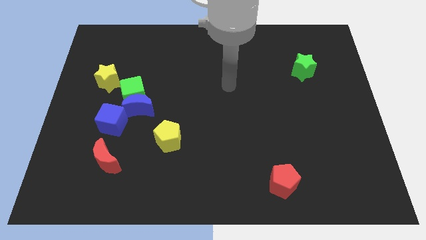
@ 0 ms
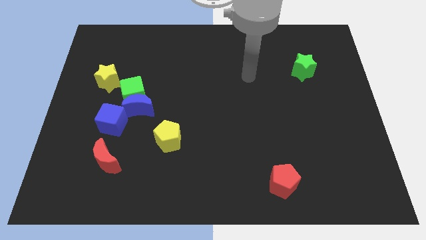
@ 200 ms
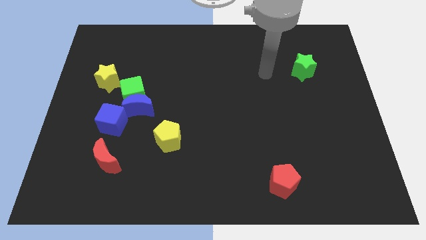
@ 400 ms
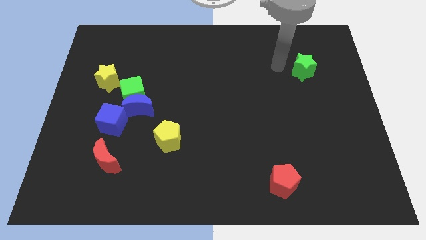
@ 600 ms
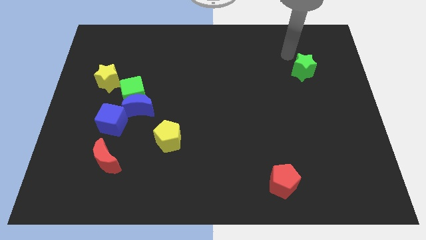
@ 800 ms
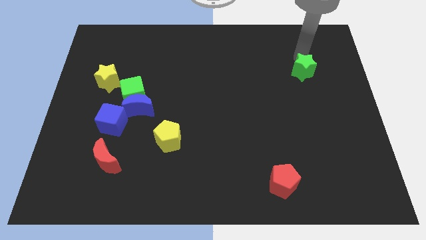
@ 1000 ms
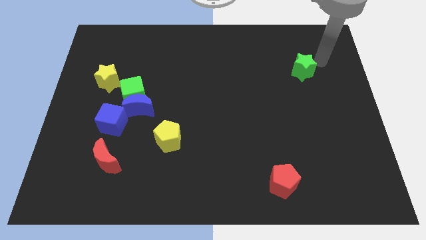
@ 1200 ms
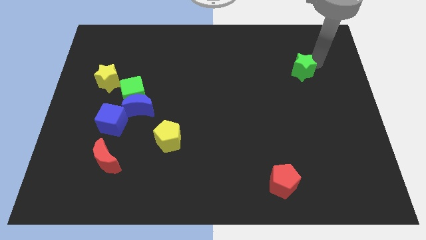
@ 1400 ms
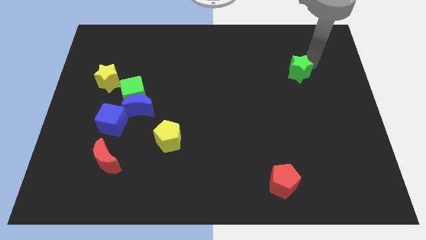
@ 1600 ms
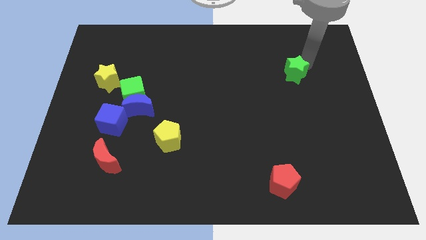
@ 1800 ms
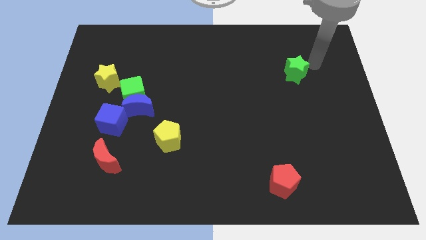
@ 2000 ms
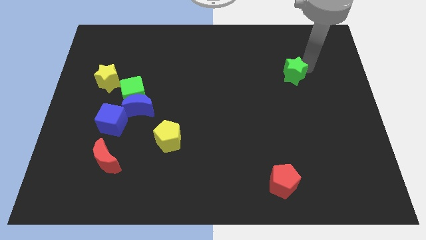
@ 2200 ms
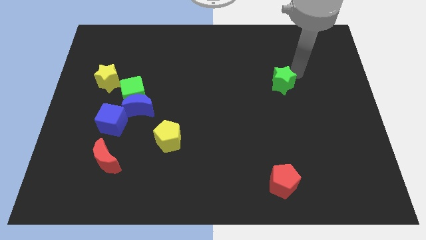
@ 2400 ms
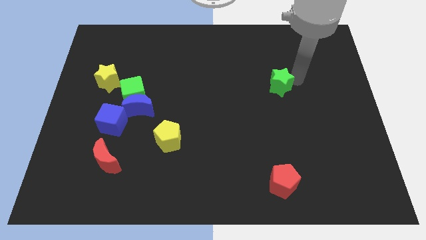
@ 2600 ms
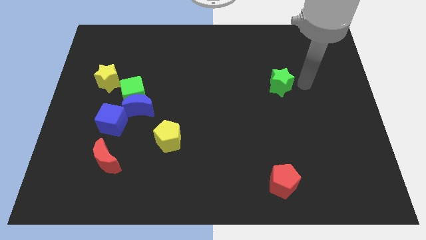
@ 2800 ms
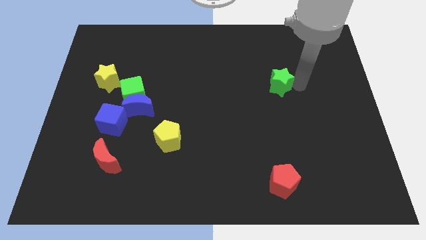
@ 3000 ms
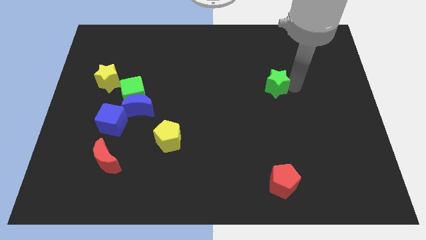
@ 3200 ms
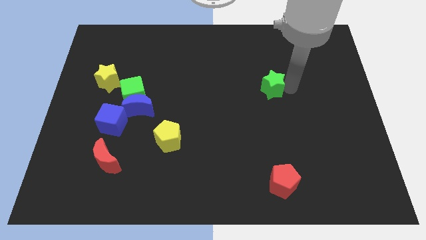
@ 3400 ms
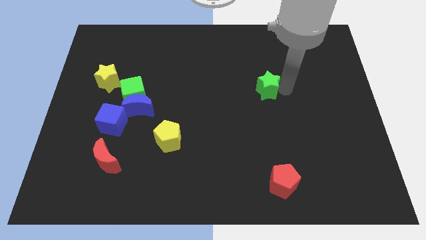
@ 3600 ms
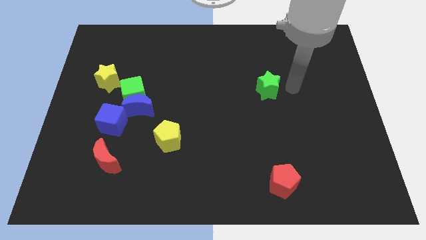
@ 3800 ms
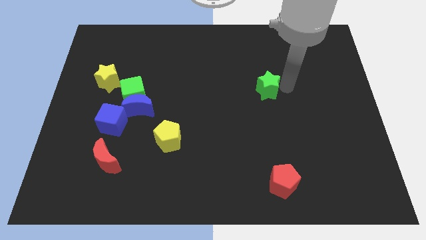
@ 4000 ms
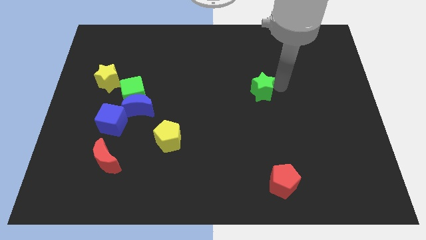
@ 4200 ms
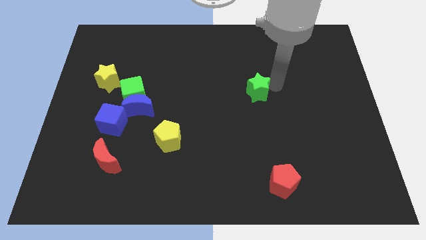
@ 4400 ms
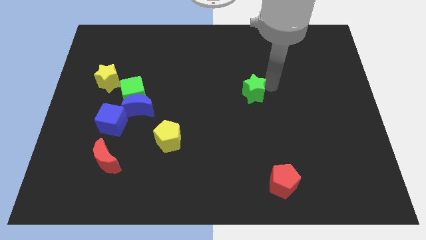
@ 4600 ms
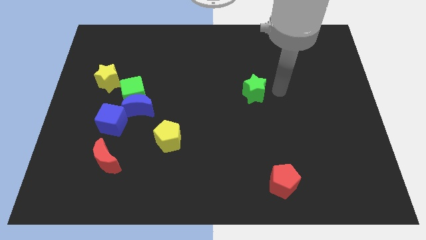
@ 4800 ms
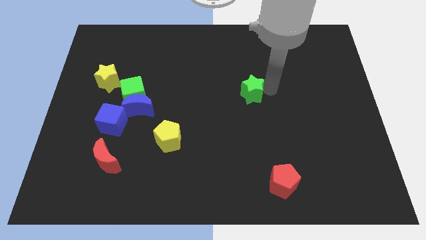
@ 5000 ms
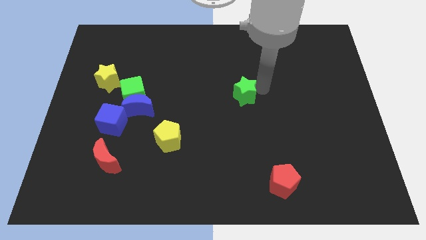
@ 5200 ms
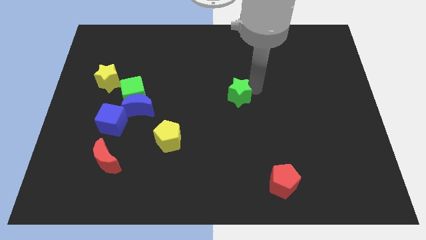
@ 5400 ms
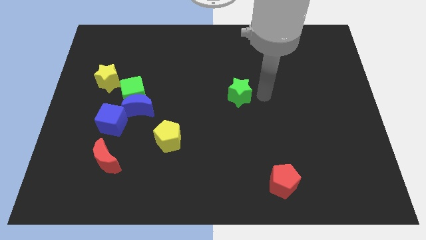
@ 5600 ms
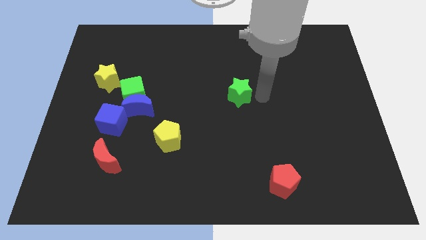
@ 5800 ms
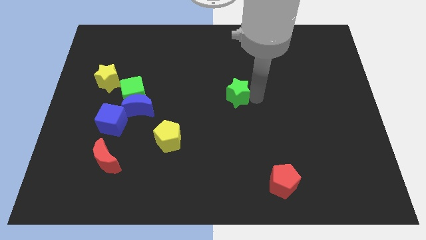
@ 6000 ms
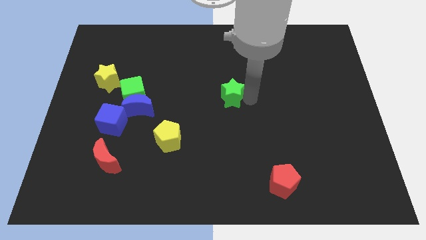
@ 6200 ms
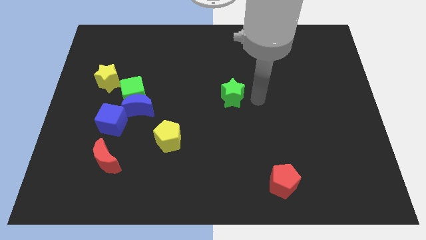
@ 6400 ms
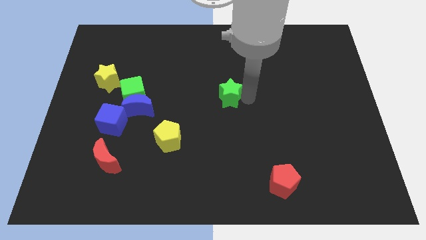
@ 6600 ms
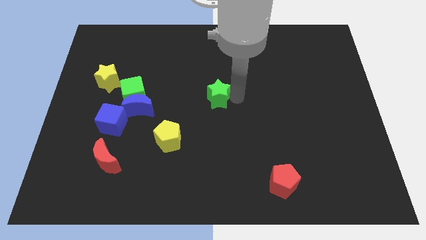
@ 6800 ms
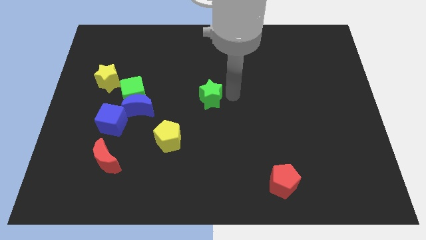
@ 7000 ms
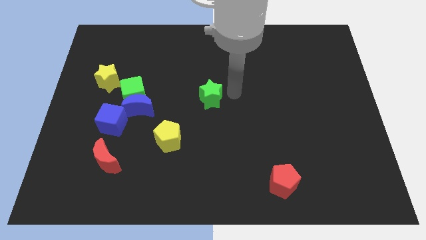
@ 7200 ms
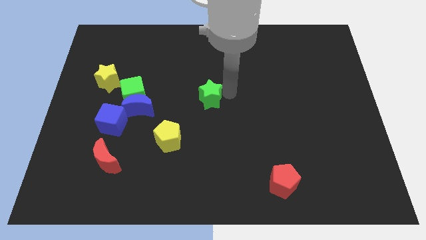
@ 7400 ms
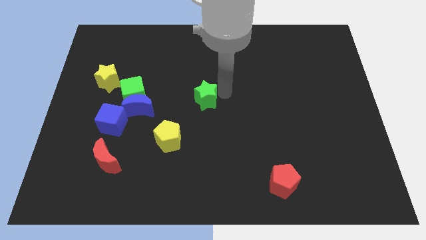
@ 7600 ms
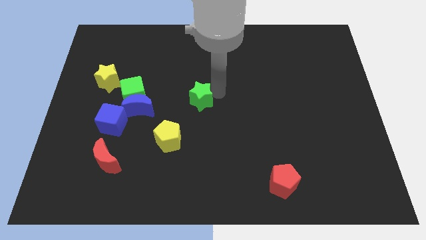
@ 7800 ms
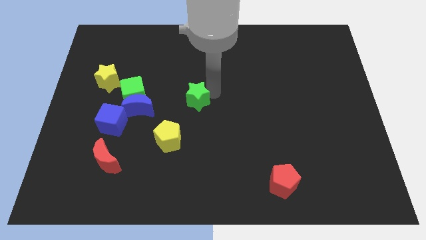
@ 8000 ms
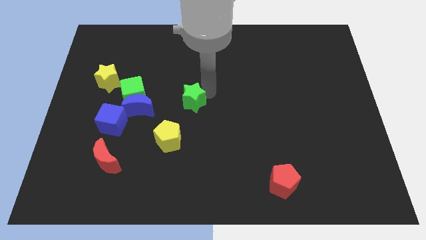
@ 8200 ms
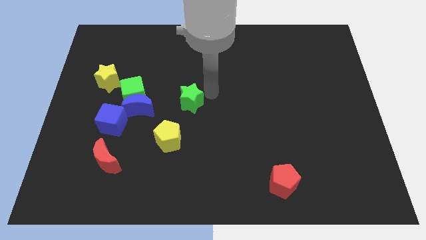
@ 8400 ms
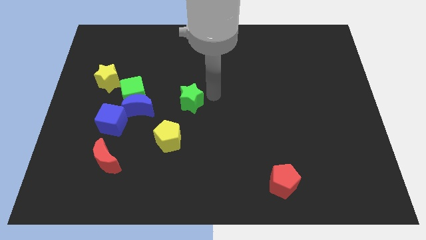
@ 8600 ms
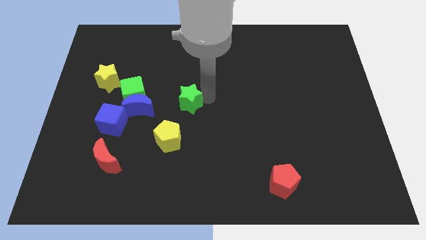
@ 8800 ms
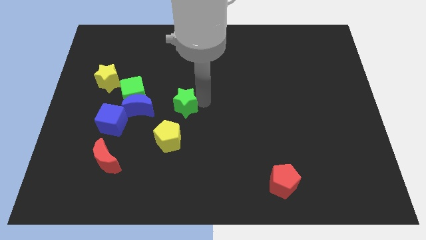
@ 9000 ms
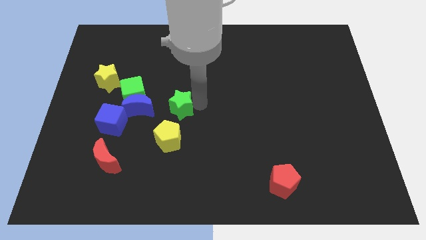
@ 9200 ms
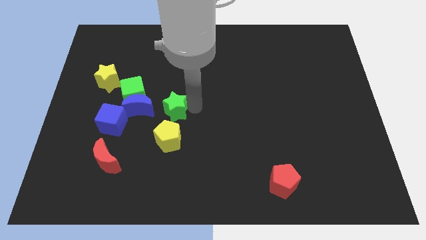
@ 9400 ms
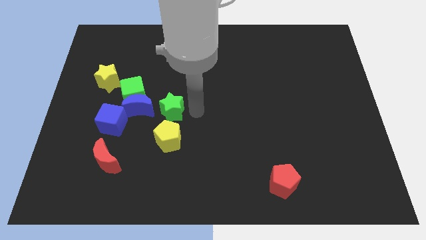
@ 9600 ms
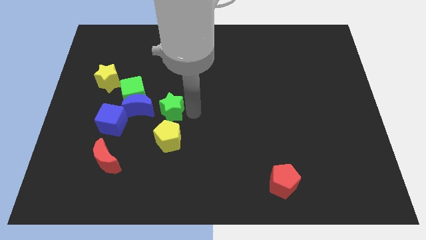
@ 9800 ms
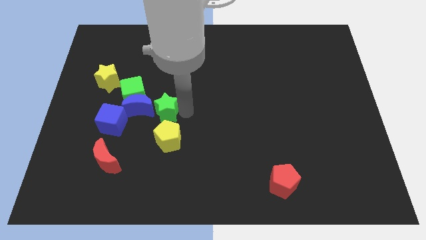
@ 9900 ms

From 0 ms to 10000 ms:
move the green star close to the blue moon

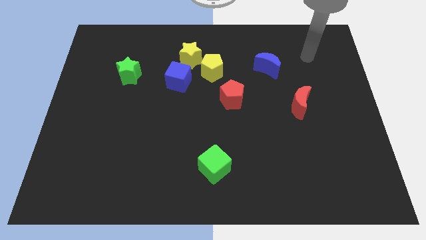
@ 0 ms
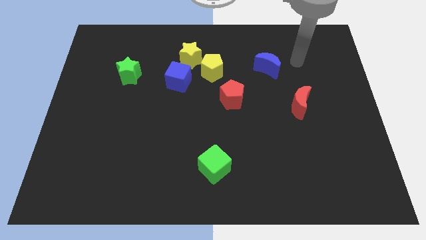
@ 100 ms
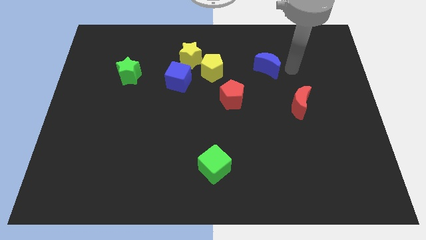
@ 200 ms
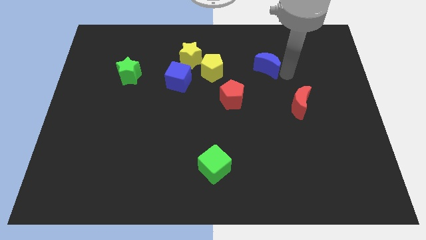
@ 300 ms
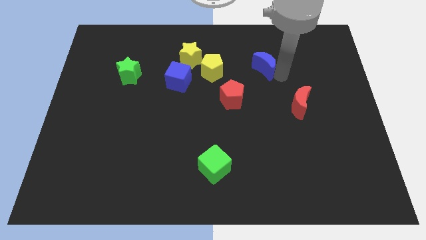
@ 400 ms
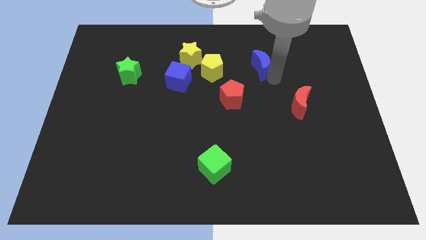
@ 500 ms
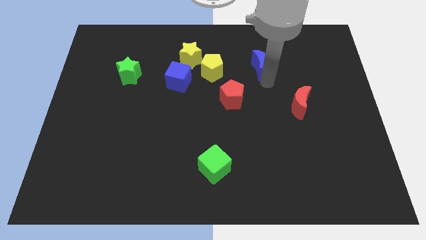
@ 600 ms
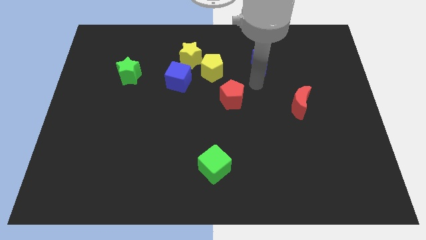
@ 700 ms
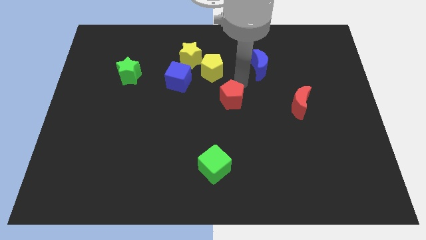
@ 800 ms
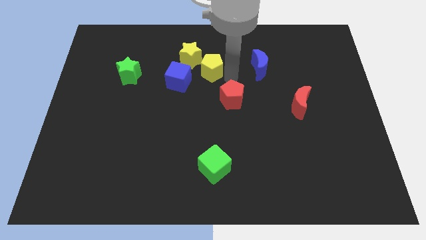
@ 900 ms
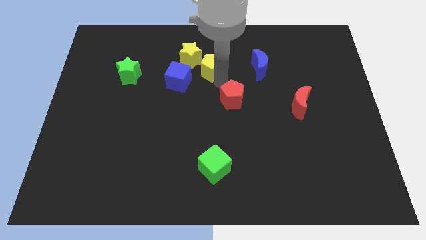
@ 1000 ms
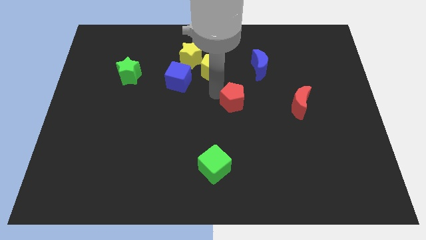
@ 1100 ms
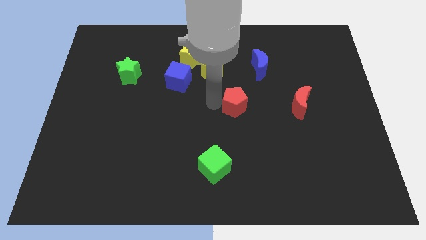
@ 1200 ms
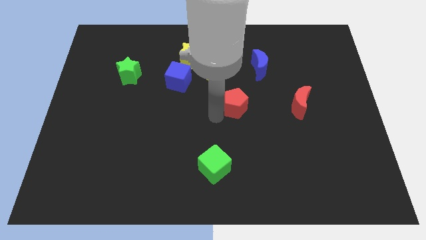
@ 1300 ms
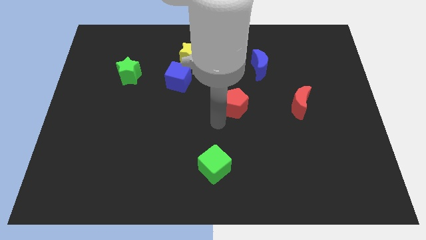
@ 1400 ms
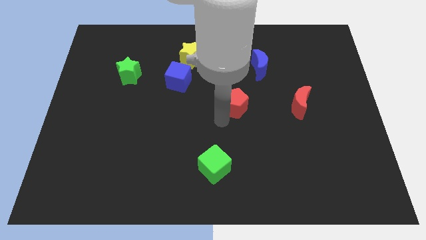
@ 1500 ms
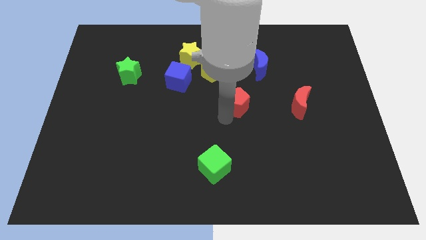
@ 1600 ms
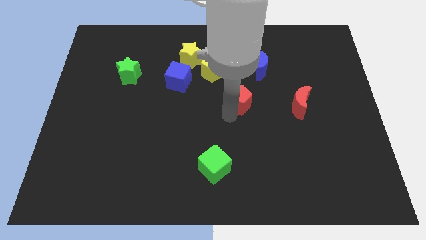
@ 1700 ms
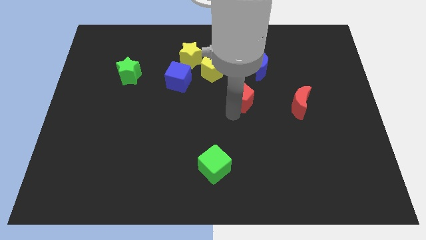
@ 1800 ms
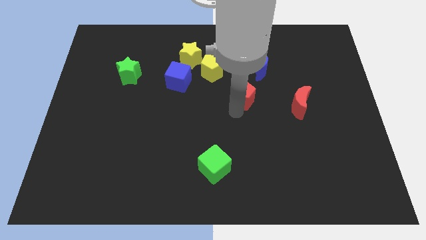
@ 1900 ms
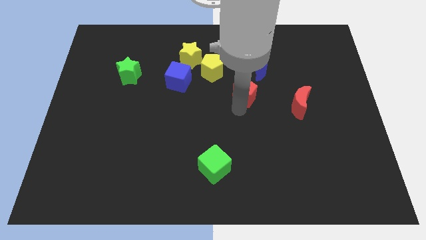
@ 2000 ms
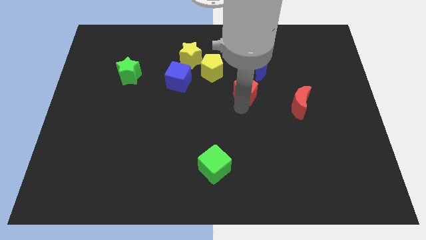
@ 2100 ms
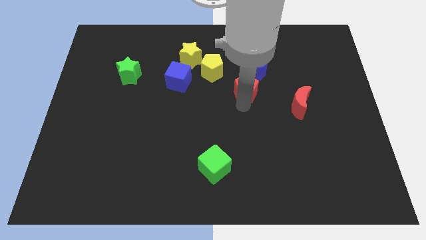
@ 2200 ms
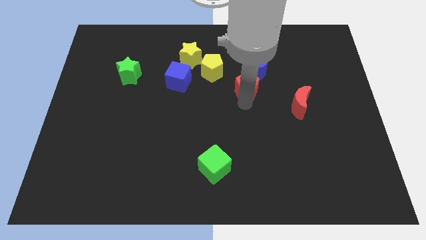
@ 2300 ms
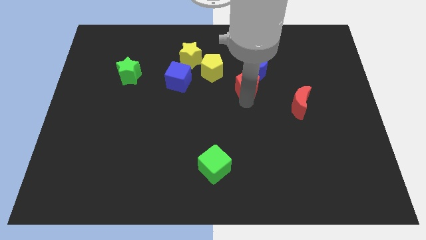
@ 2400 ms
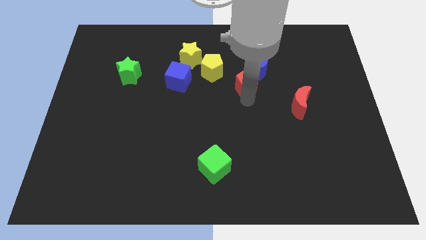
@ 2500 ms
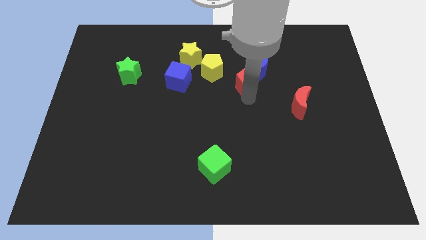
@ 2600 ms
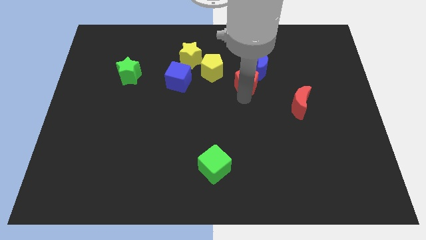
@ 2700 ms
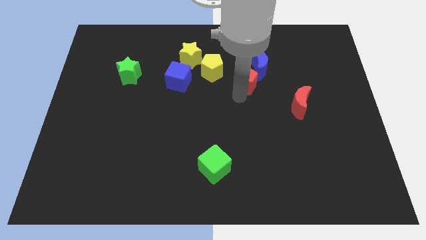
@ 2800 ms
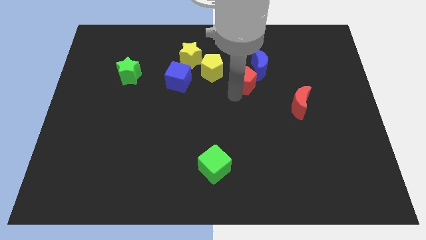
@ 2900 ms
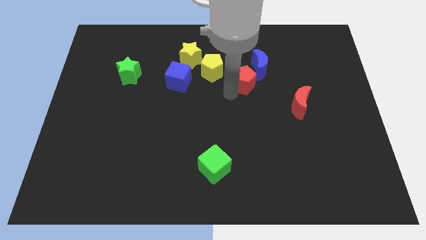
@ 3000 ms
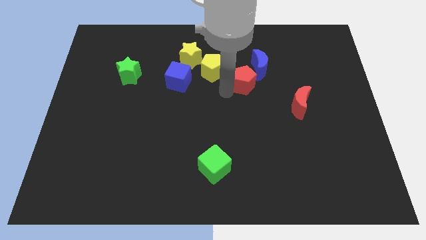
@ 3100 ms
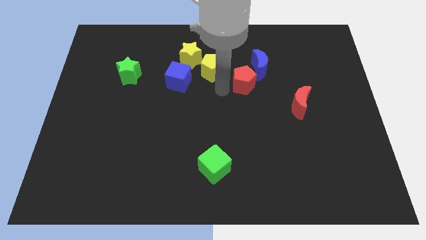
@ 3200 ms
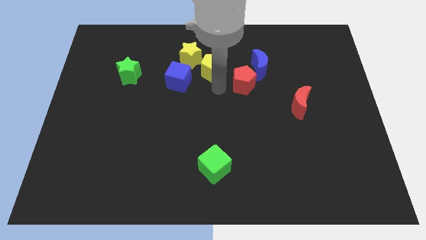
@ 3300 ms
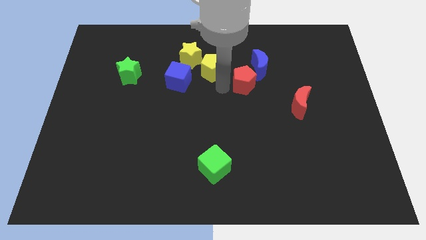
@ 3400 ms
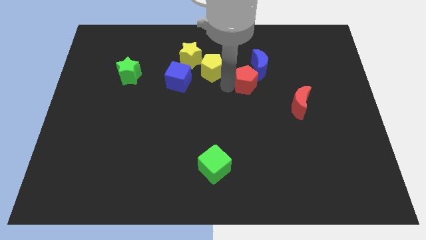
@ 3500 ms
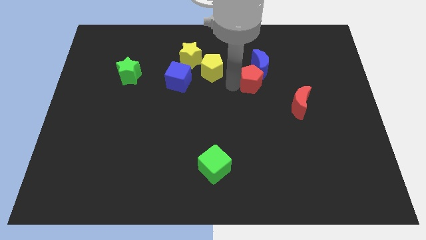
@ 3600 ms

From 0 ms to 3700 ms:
put the red pentagon towards the blue moon
